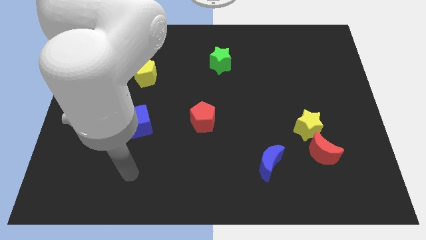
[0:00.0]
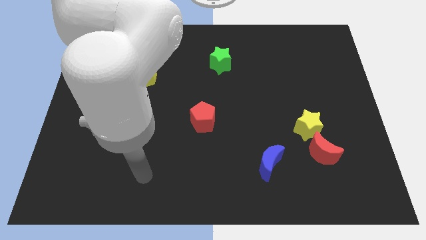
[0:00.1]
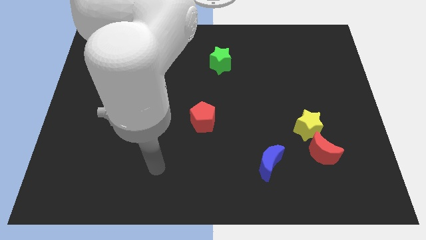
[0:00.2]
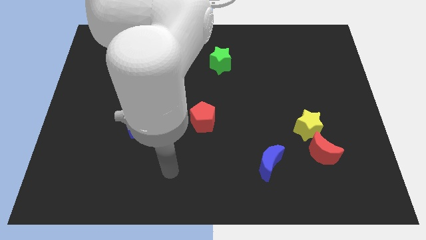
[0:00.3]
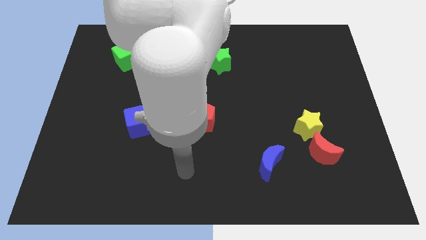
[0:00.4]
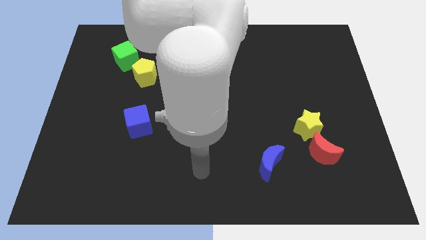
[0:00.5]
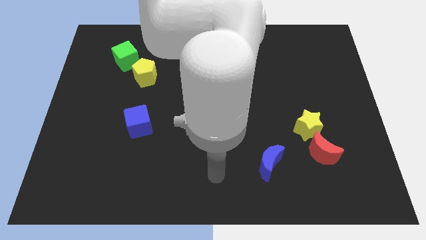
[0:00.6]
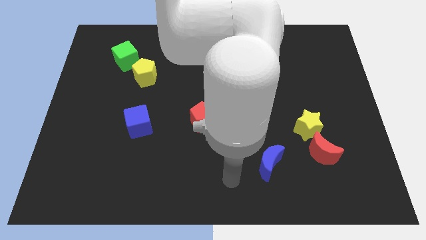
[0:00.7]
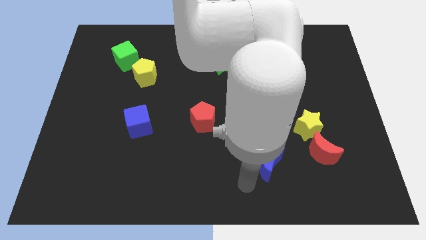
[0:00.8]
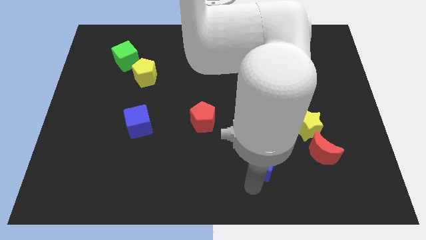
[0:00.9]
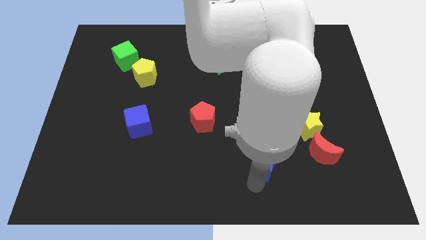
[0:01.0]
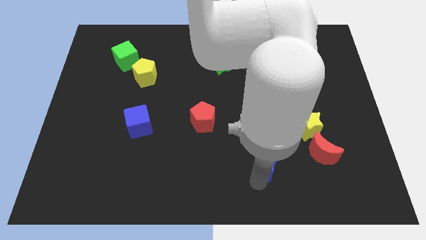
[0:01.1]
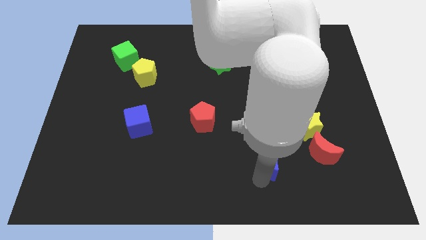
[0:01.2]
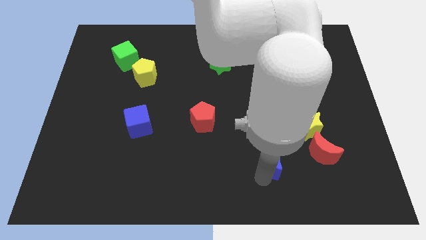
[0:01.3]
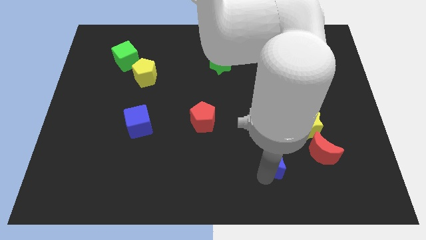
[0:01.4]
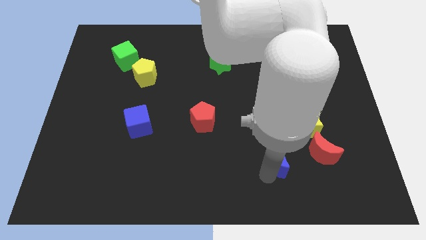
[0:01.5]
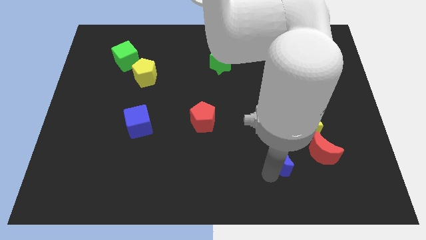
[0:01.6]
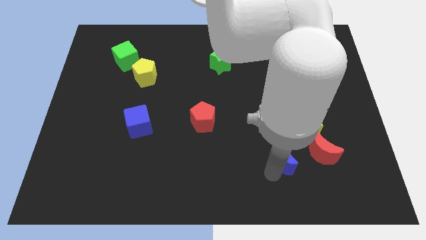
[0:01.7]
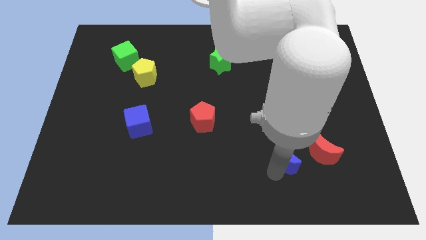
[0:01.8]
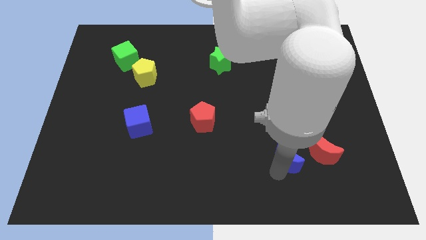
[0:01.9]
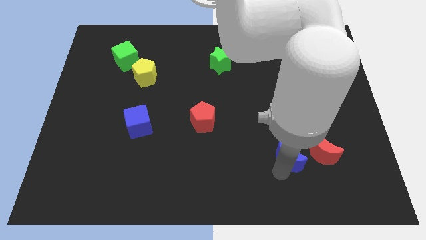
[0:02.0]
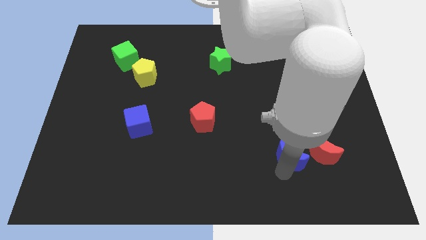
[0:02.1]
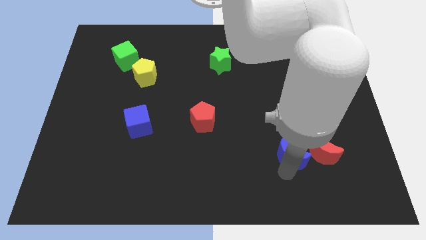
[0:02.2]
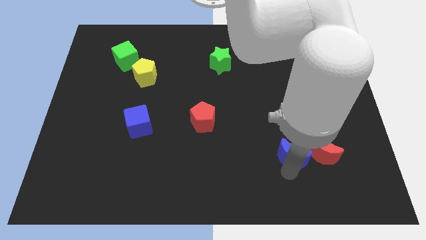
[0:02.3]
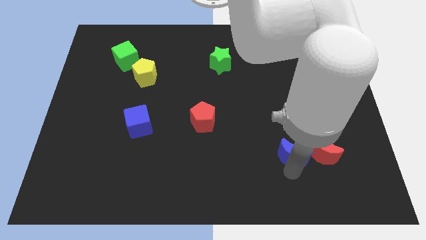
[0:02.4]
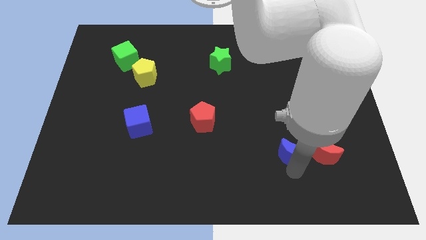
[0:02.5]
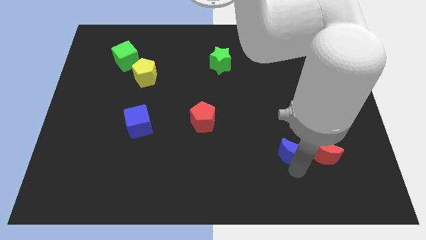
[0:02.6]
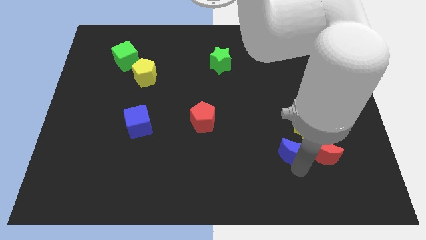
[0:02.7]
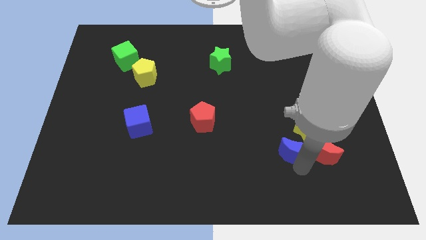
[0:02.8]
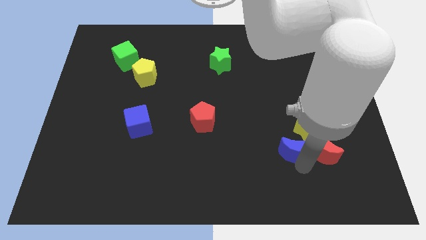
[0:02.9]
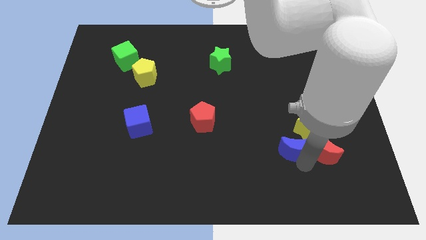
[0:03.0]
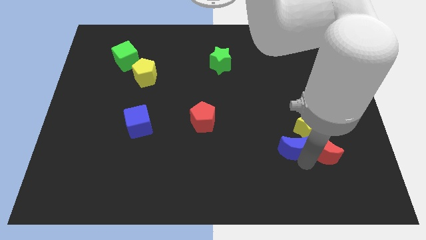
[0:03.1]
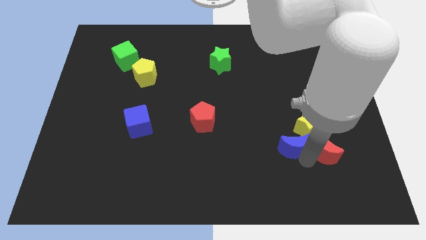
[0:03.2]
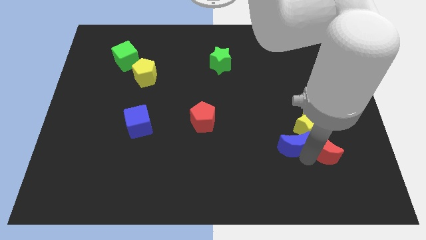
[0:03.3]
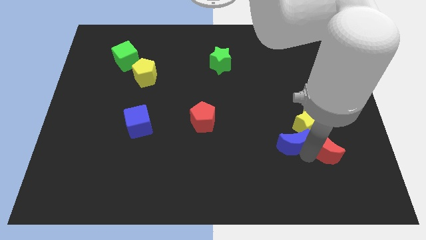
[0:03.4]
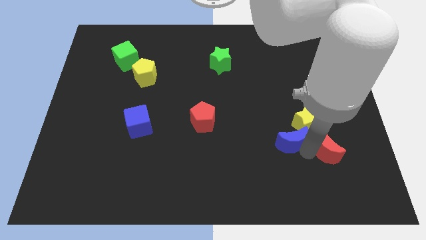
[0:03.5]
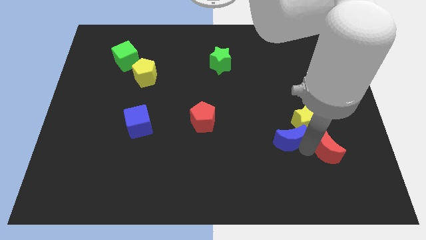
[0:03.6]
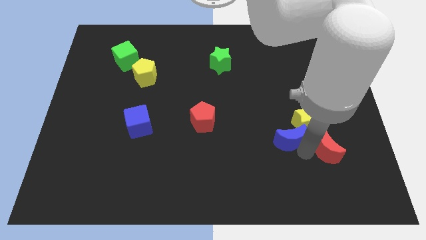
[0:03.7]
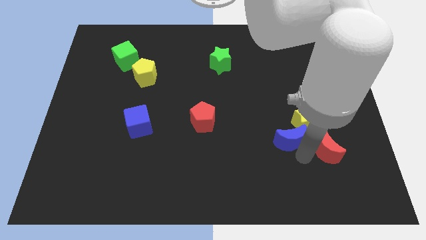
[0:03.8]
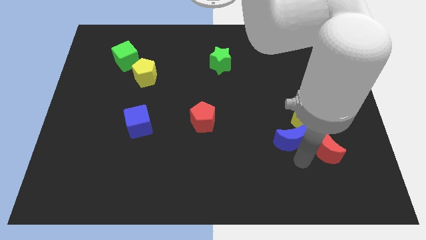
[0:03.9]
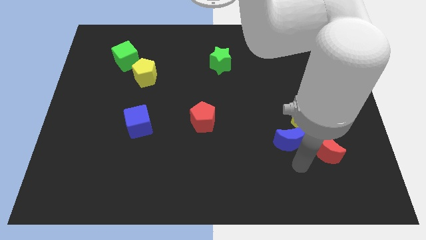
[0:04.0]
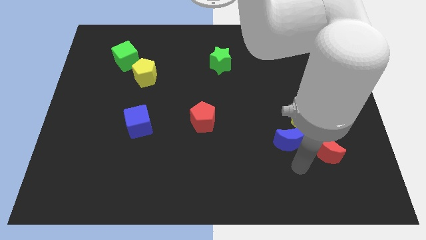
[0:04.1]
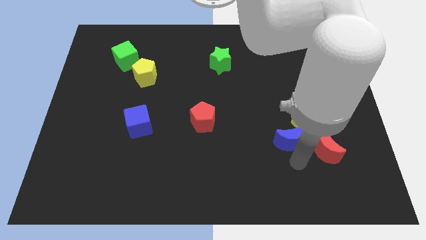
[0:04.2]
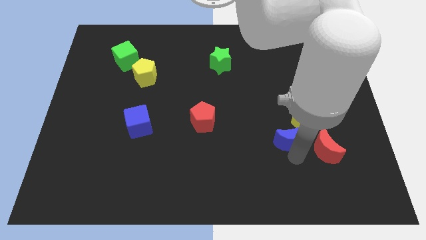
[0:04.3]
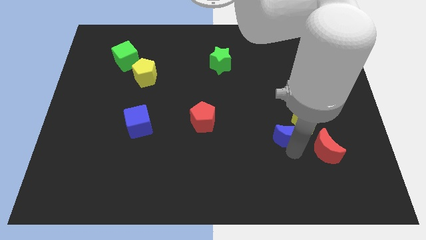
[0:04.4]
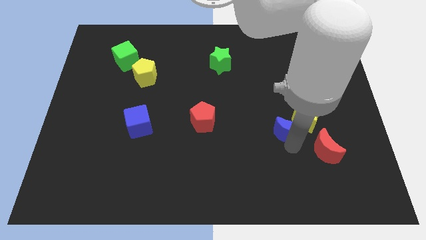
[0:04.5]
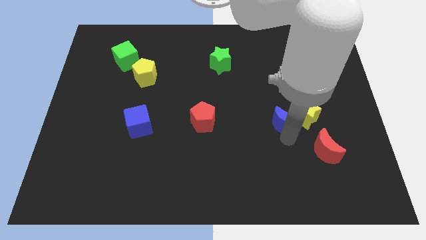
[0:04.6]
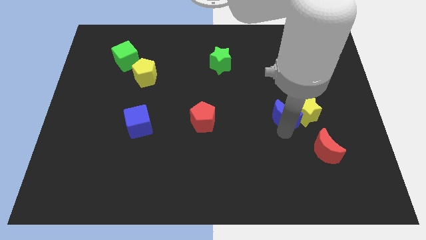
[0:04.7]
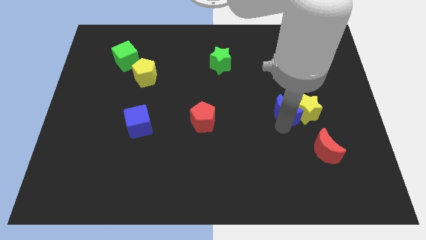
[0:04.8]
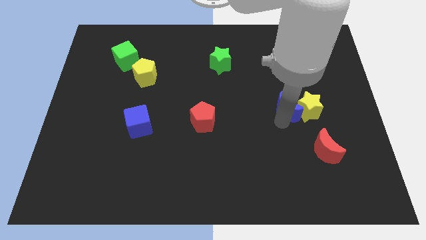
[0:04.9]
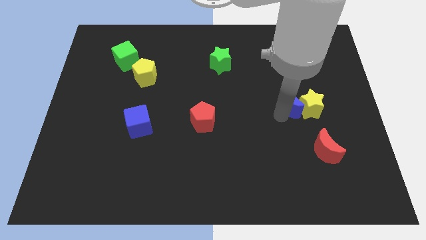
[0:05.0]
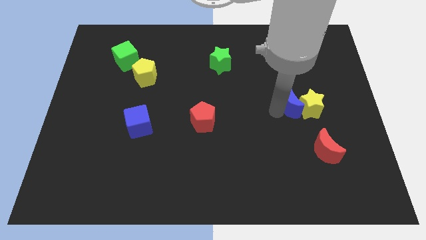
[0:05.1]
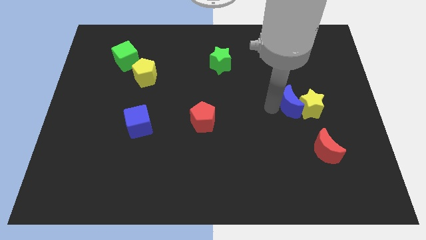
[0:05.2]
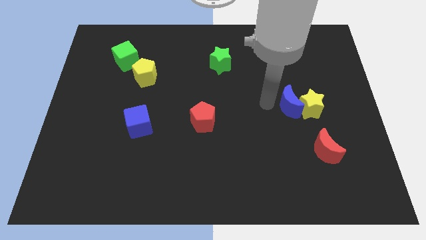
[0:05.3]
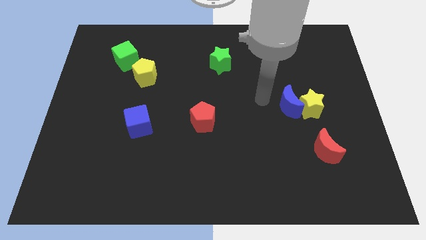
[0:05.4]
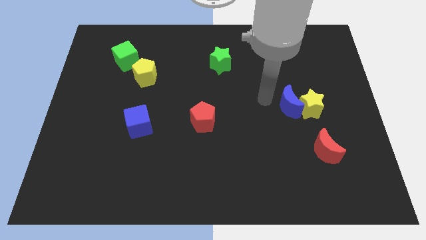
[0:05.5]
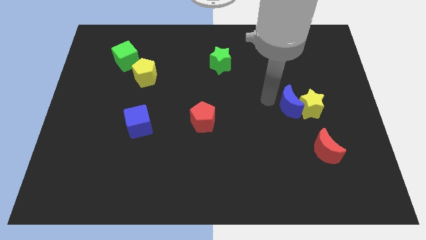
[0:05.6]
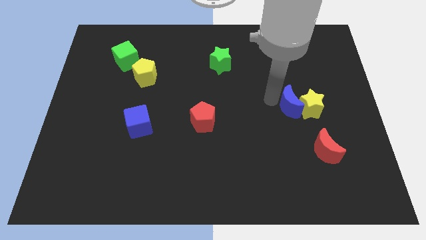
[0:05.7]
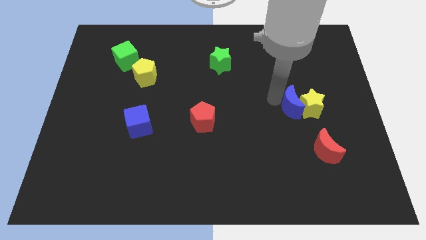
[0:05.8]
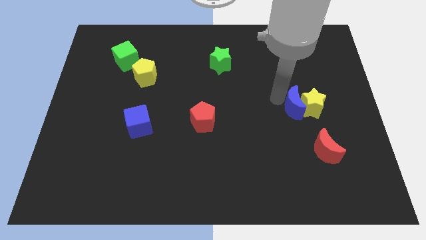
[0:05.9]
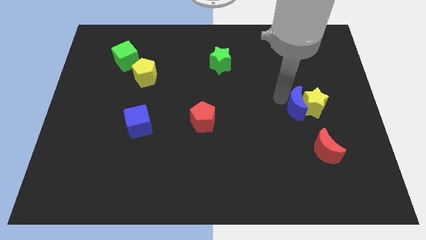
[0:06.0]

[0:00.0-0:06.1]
move the blue moon above the red moon

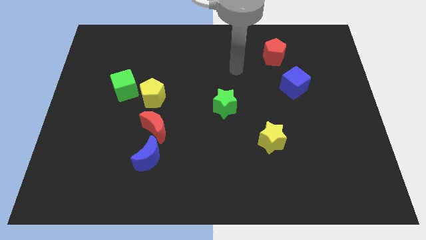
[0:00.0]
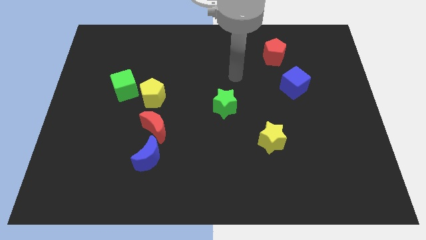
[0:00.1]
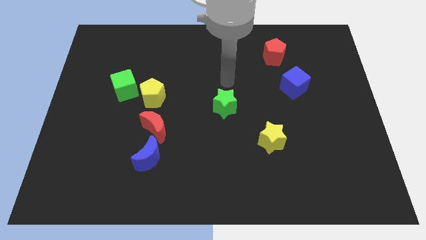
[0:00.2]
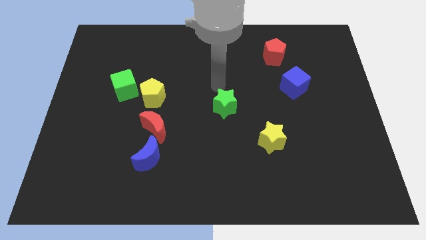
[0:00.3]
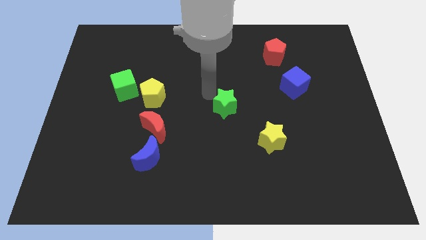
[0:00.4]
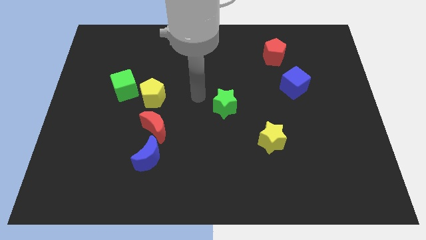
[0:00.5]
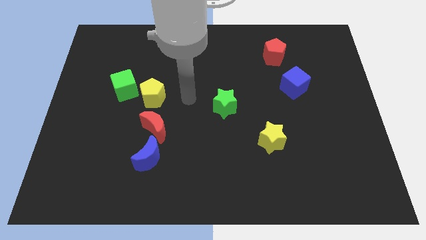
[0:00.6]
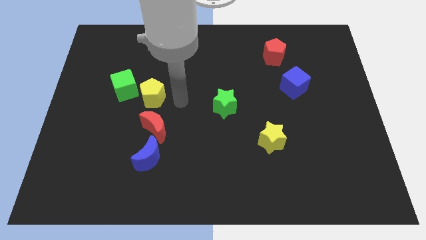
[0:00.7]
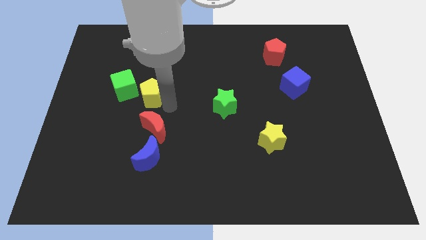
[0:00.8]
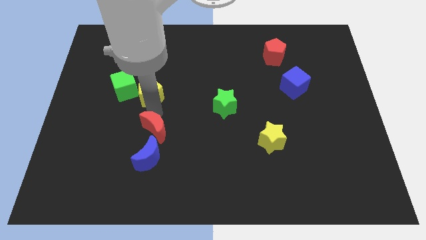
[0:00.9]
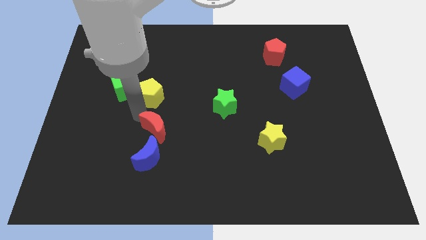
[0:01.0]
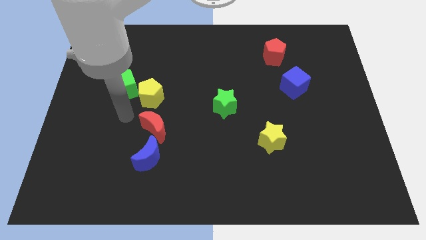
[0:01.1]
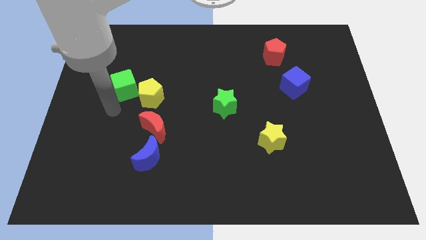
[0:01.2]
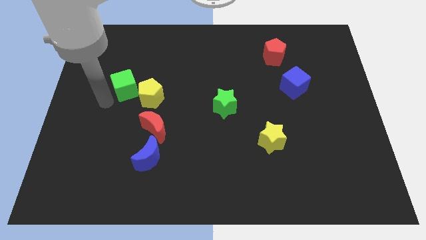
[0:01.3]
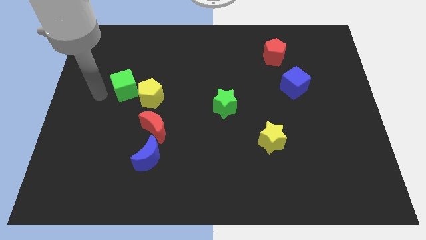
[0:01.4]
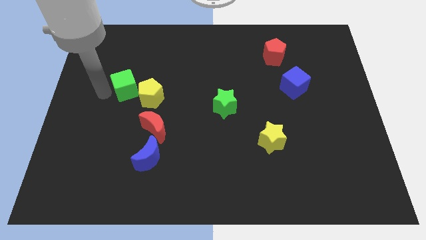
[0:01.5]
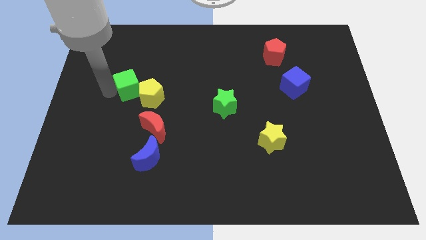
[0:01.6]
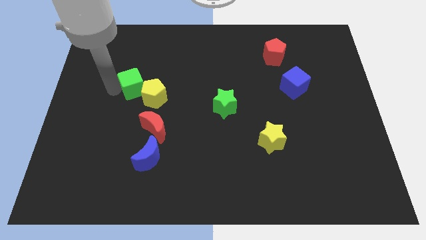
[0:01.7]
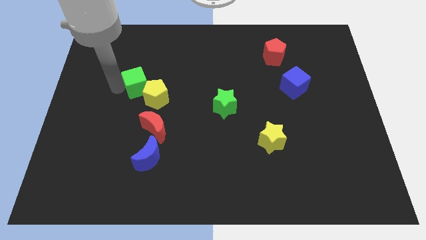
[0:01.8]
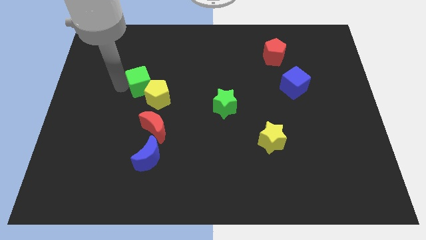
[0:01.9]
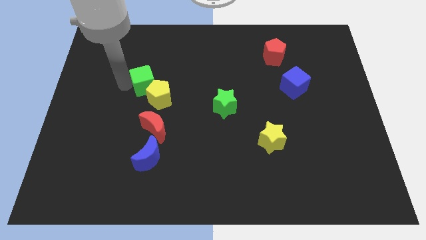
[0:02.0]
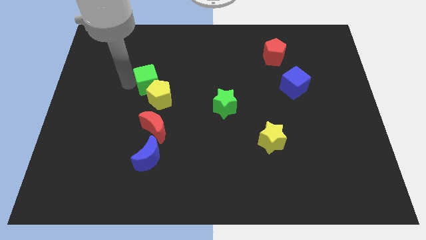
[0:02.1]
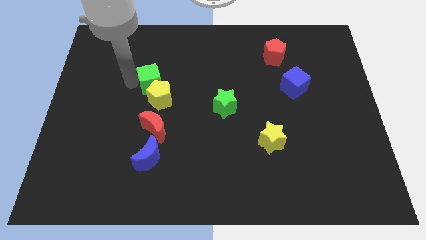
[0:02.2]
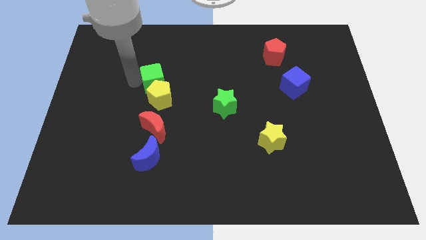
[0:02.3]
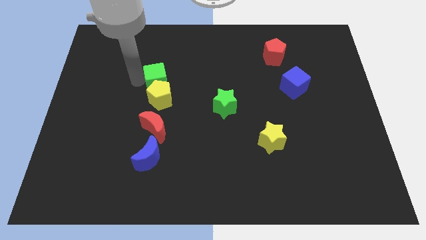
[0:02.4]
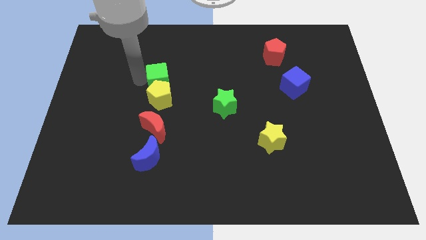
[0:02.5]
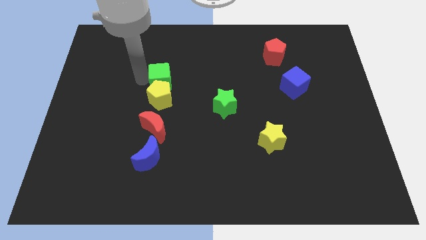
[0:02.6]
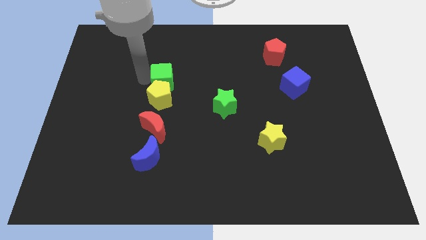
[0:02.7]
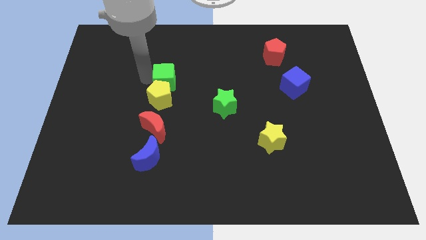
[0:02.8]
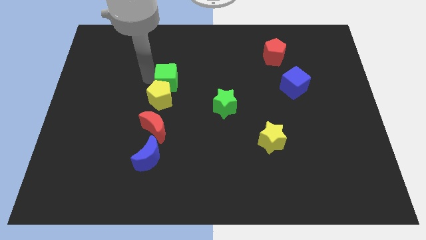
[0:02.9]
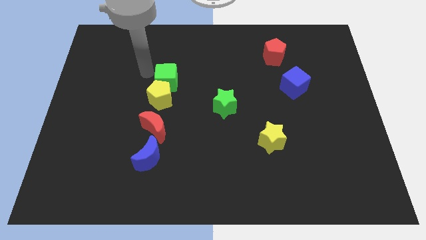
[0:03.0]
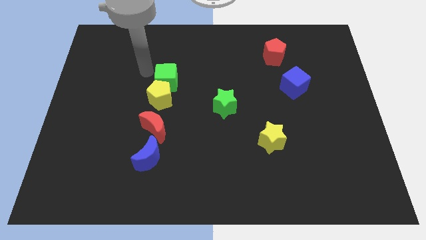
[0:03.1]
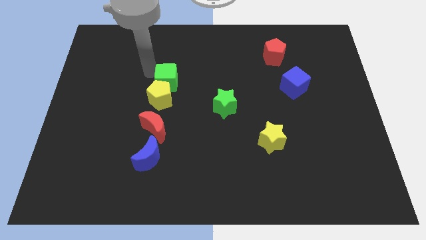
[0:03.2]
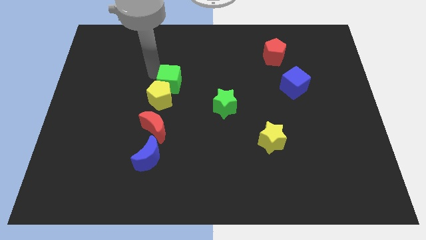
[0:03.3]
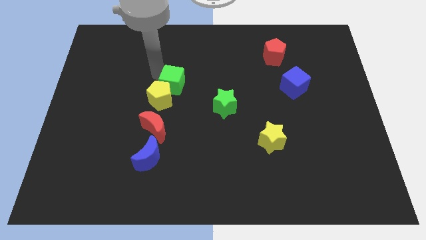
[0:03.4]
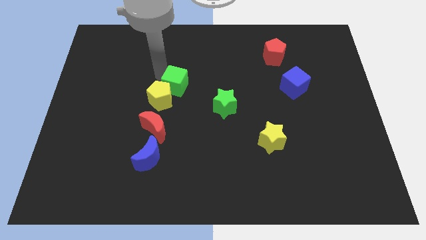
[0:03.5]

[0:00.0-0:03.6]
put the green cube right of the yellow pentagon
